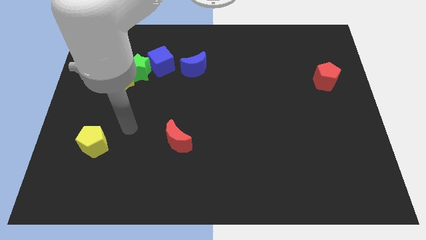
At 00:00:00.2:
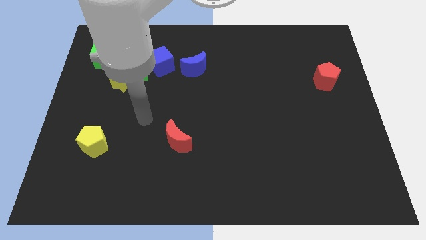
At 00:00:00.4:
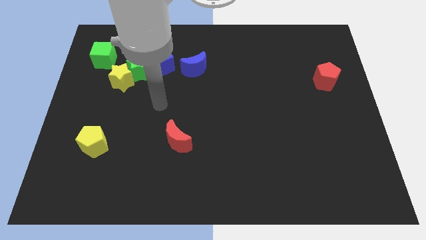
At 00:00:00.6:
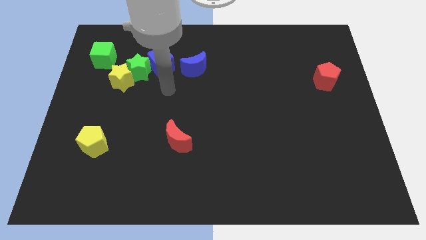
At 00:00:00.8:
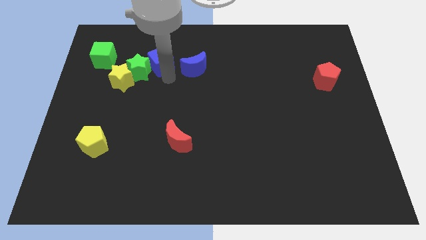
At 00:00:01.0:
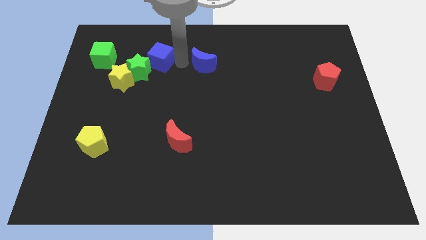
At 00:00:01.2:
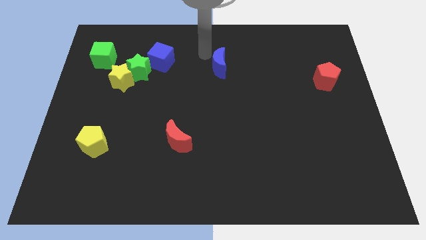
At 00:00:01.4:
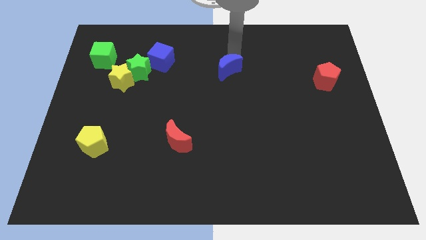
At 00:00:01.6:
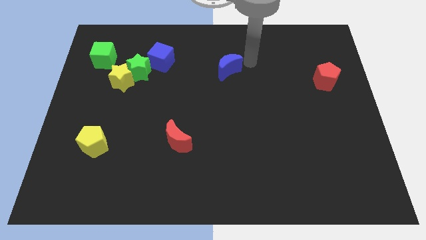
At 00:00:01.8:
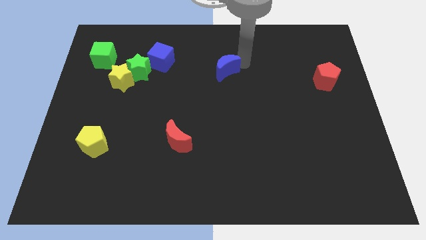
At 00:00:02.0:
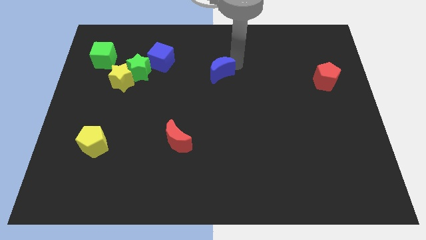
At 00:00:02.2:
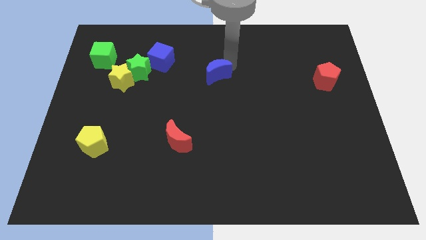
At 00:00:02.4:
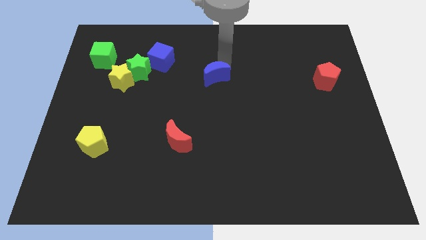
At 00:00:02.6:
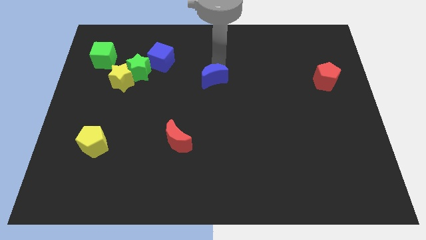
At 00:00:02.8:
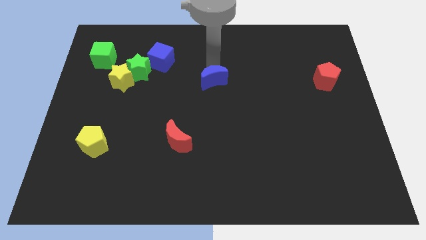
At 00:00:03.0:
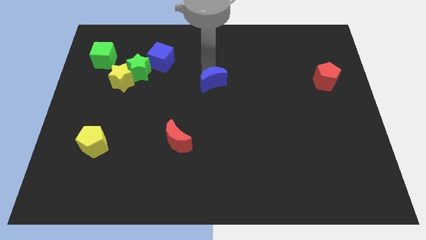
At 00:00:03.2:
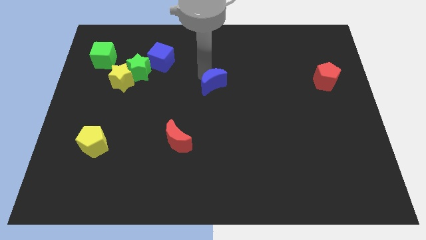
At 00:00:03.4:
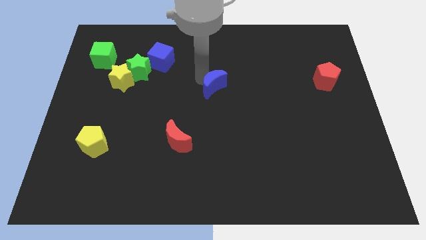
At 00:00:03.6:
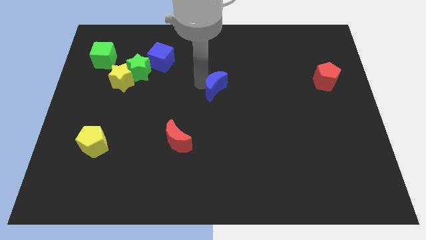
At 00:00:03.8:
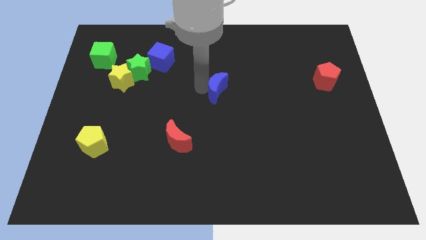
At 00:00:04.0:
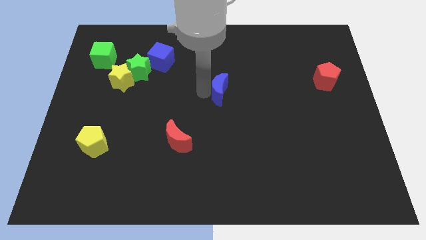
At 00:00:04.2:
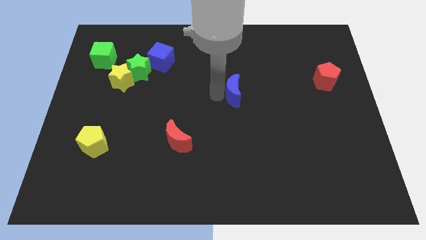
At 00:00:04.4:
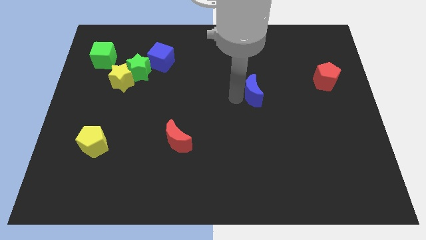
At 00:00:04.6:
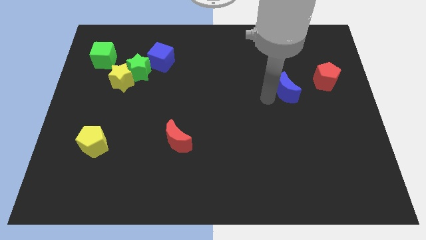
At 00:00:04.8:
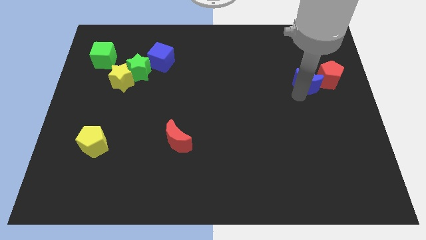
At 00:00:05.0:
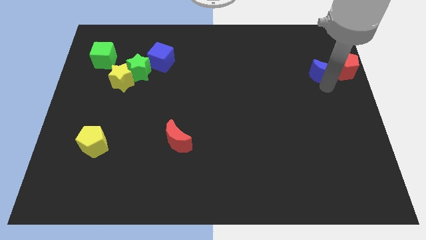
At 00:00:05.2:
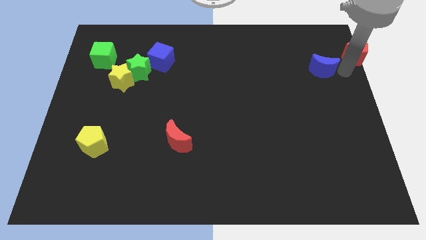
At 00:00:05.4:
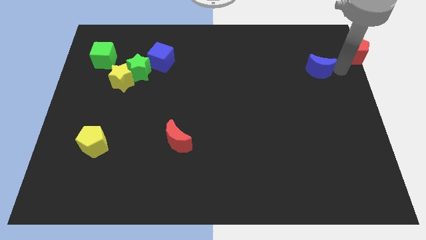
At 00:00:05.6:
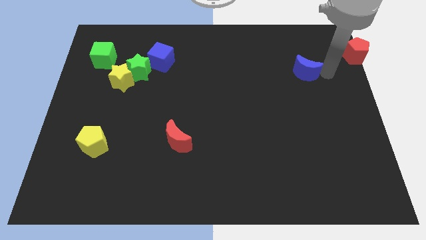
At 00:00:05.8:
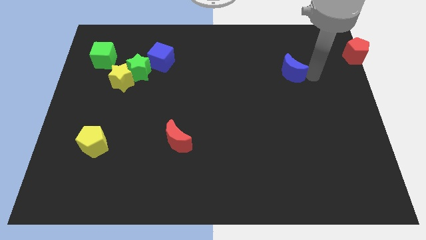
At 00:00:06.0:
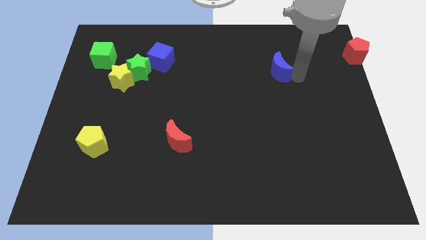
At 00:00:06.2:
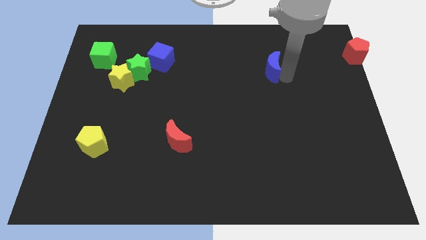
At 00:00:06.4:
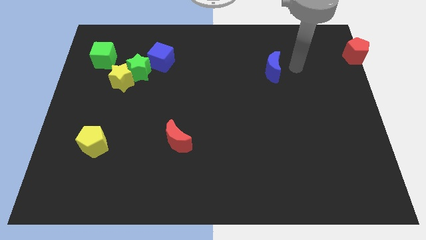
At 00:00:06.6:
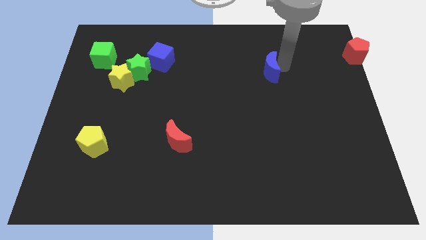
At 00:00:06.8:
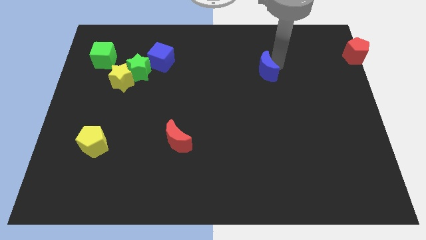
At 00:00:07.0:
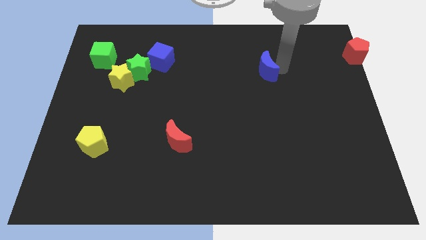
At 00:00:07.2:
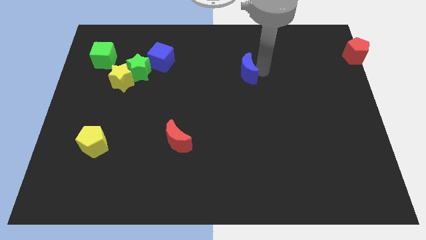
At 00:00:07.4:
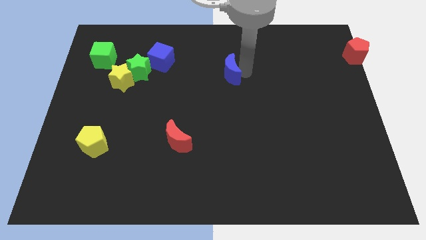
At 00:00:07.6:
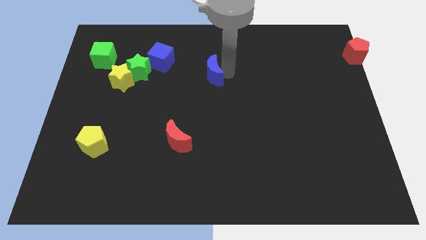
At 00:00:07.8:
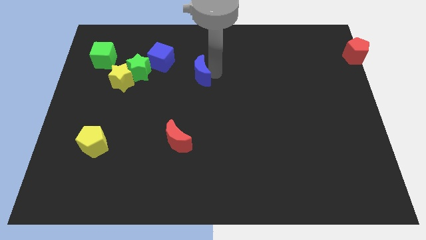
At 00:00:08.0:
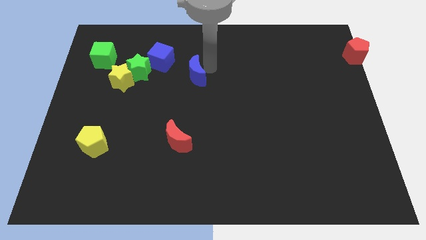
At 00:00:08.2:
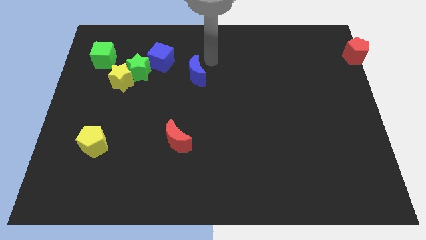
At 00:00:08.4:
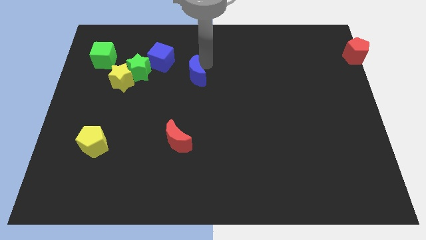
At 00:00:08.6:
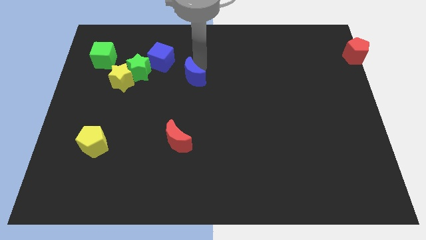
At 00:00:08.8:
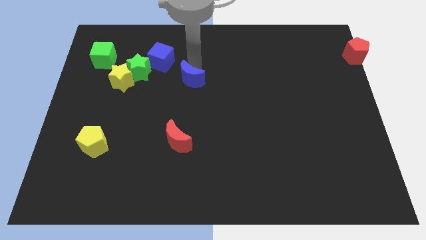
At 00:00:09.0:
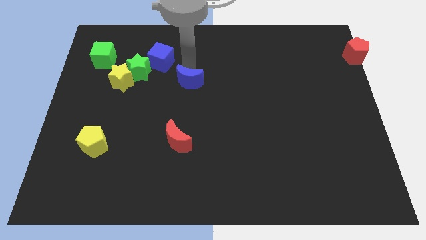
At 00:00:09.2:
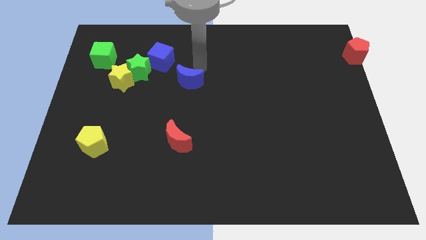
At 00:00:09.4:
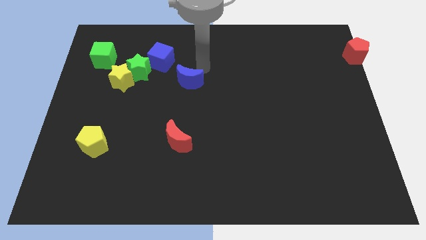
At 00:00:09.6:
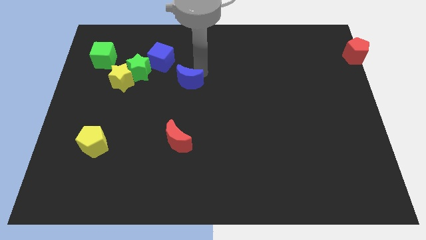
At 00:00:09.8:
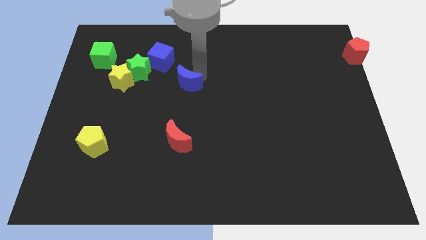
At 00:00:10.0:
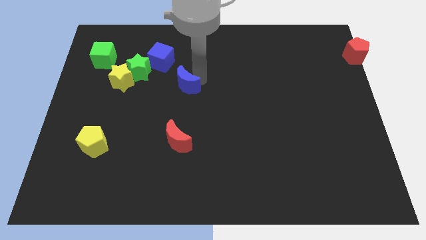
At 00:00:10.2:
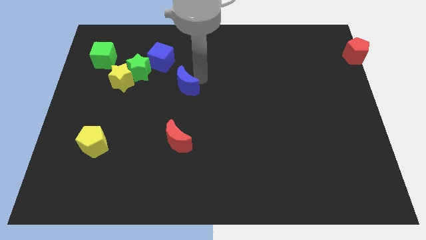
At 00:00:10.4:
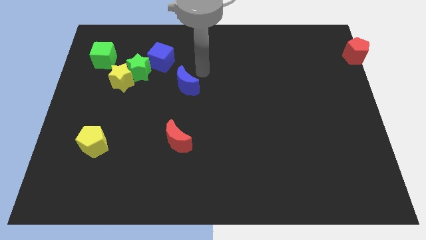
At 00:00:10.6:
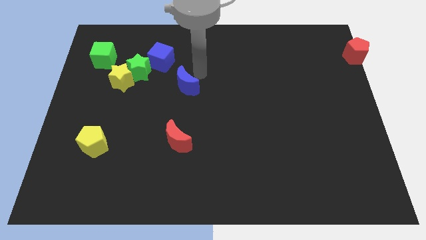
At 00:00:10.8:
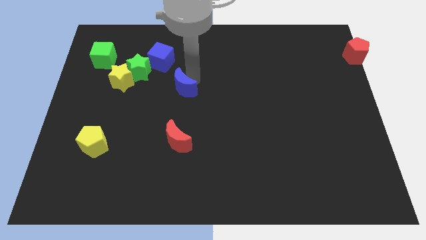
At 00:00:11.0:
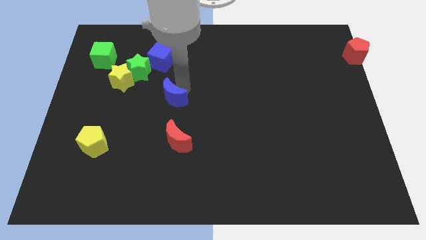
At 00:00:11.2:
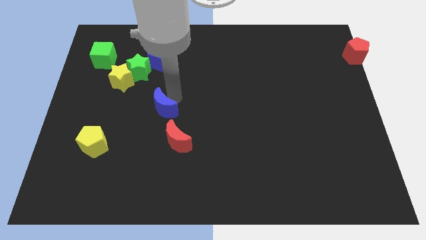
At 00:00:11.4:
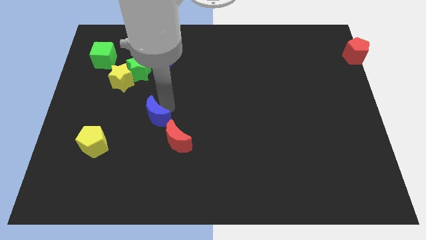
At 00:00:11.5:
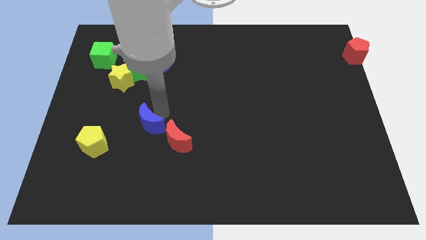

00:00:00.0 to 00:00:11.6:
put the blue moon just left of the red moon

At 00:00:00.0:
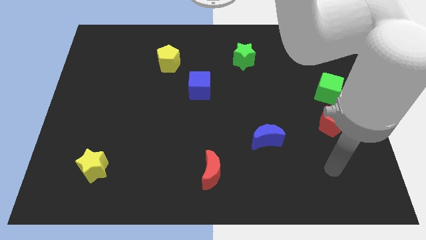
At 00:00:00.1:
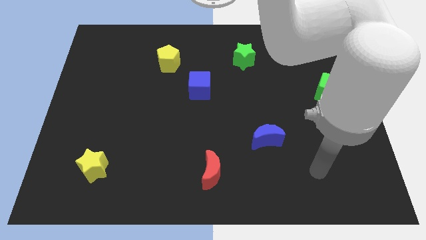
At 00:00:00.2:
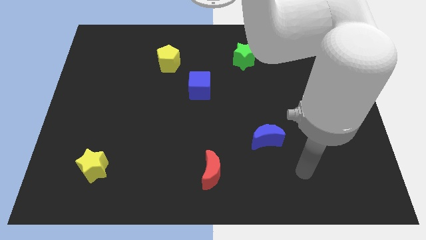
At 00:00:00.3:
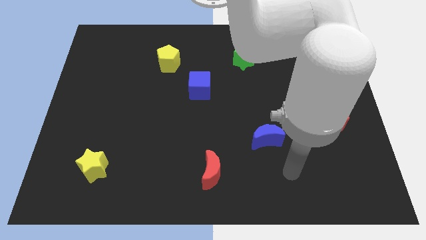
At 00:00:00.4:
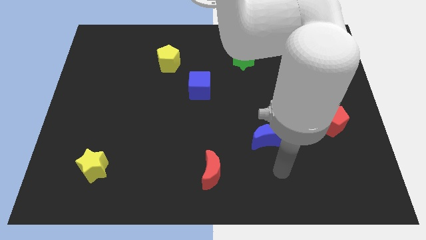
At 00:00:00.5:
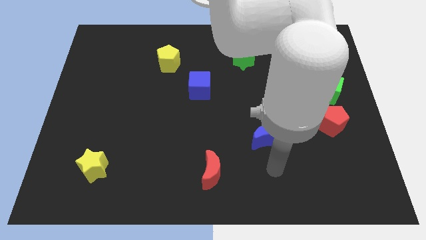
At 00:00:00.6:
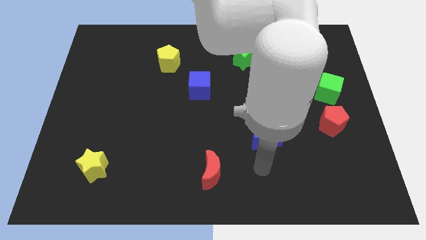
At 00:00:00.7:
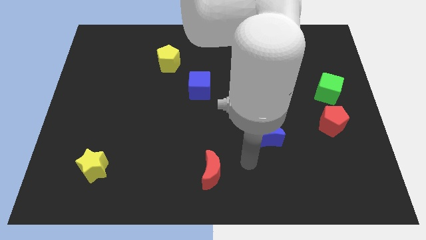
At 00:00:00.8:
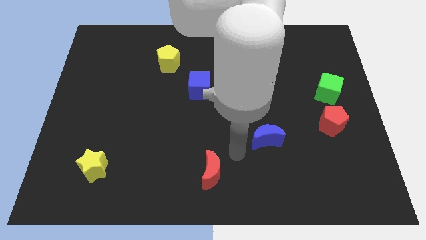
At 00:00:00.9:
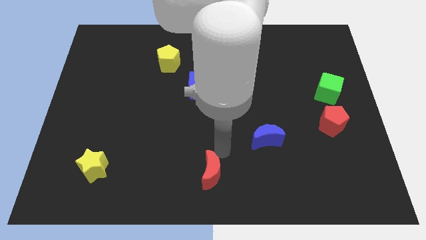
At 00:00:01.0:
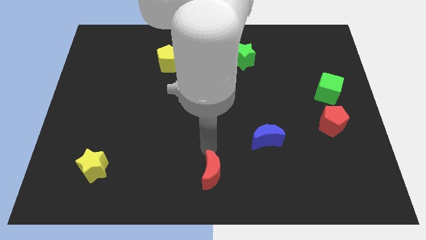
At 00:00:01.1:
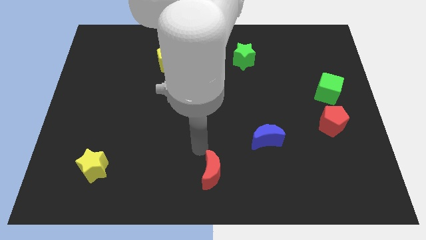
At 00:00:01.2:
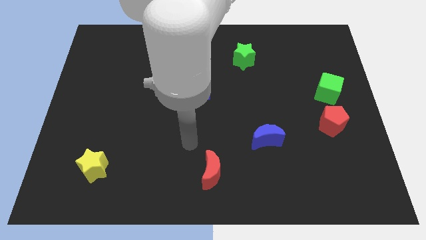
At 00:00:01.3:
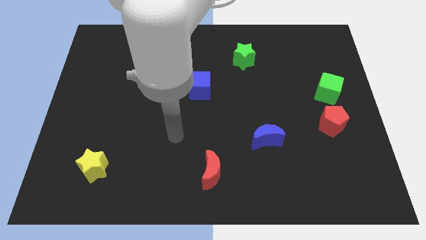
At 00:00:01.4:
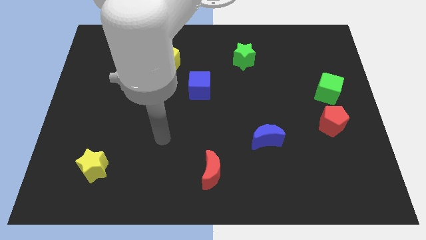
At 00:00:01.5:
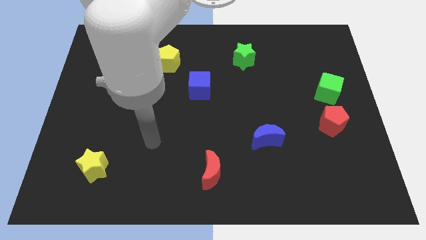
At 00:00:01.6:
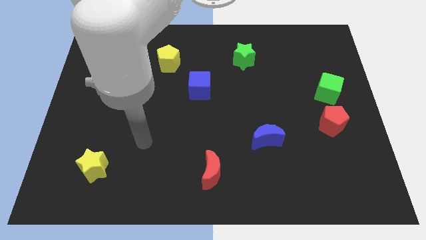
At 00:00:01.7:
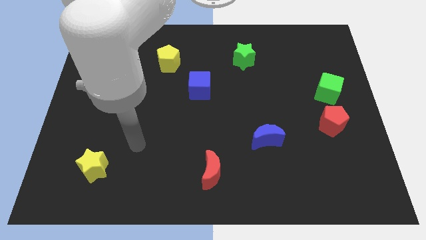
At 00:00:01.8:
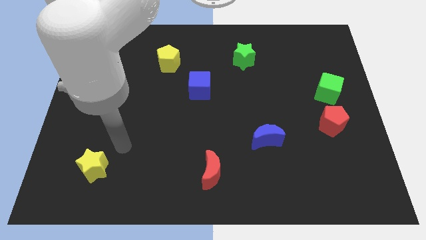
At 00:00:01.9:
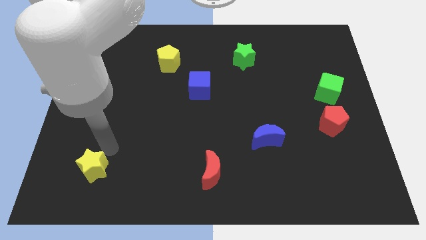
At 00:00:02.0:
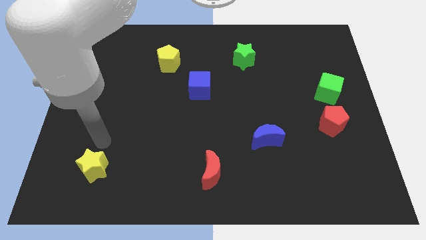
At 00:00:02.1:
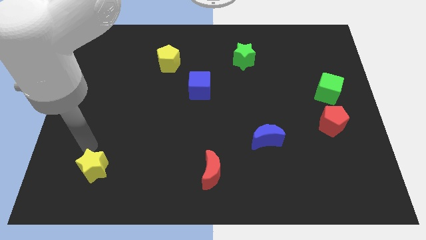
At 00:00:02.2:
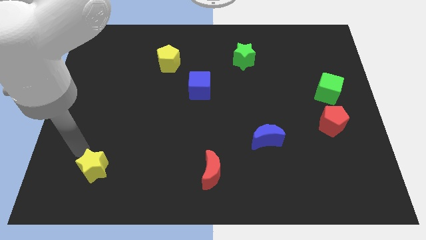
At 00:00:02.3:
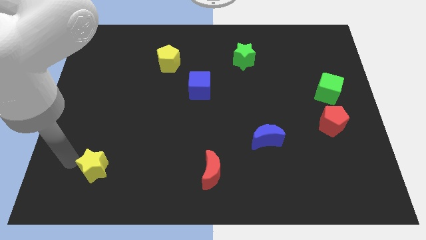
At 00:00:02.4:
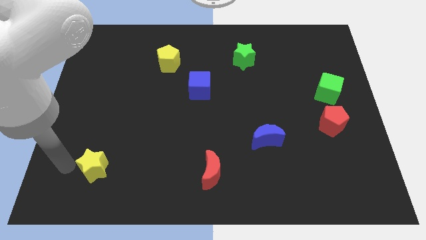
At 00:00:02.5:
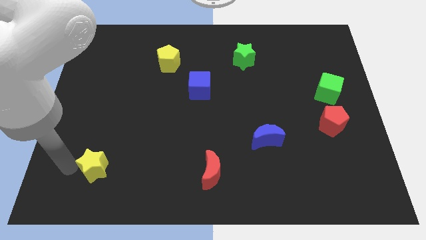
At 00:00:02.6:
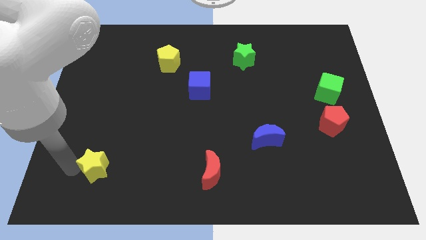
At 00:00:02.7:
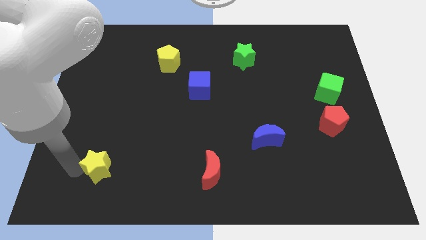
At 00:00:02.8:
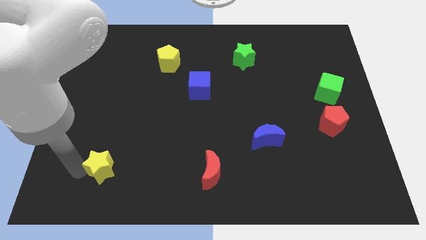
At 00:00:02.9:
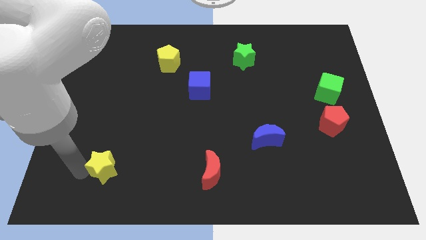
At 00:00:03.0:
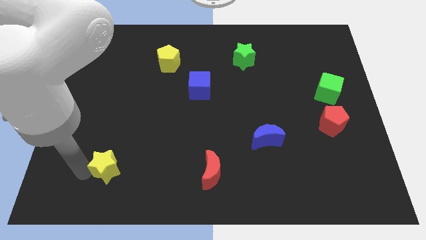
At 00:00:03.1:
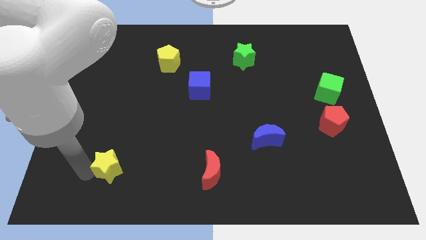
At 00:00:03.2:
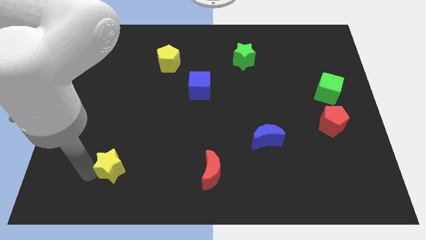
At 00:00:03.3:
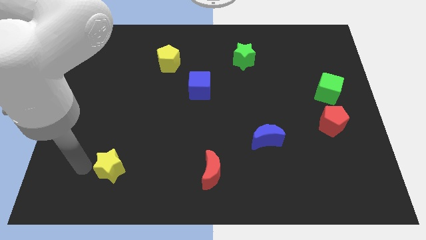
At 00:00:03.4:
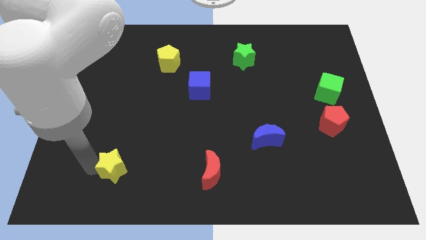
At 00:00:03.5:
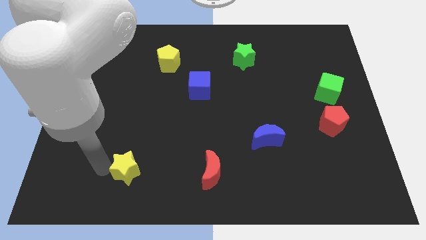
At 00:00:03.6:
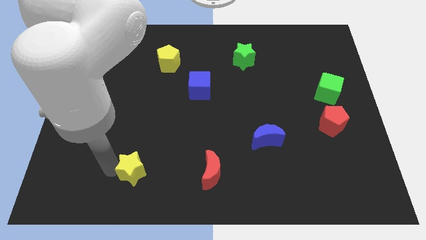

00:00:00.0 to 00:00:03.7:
put the yellow star to the left of the red moon
